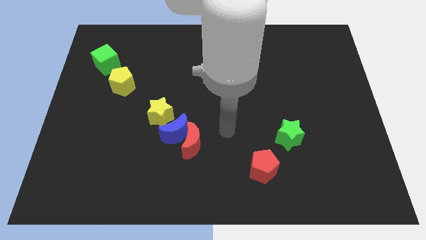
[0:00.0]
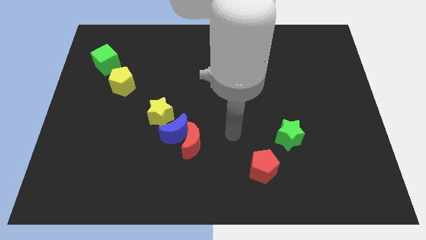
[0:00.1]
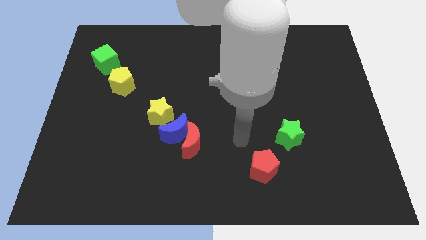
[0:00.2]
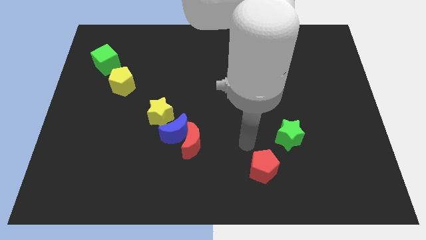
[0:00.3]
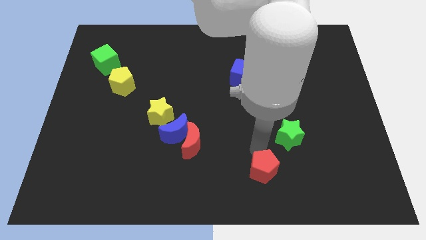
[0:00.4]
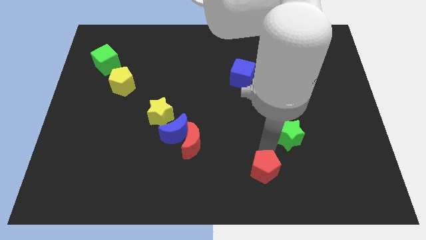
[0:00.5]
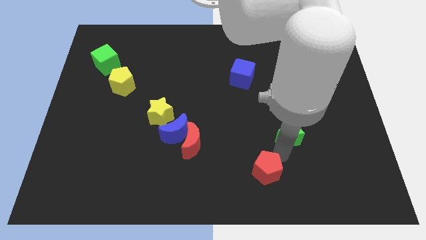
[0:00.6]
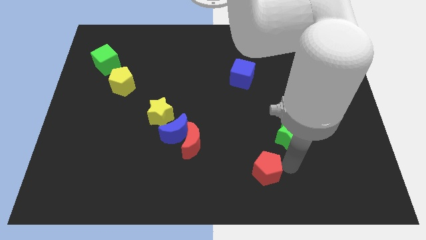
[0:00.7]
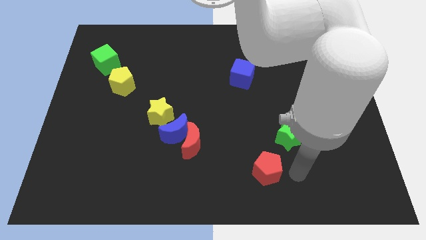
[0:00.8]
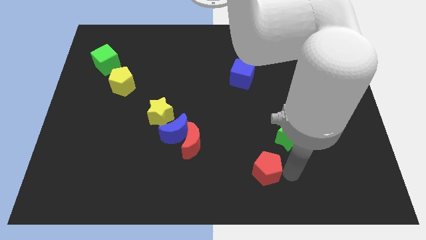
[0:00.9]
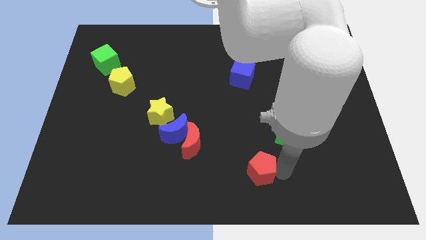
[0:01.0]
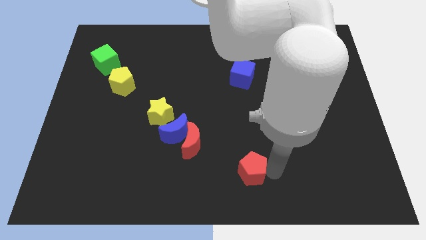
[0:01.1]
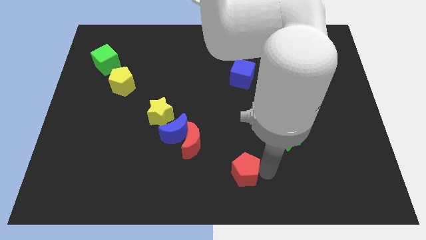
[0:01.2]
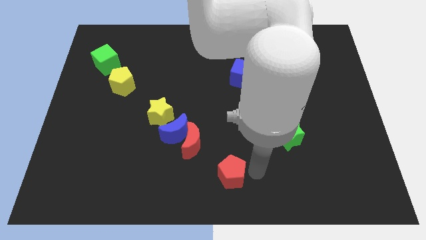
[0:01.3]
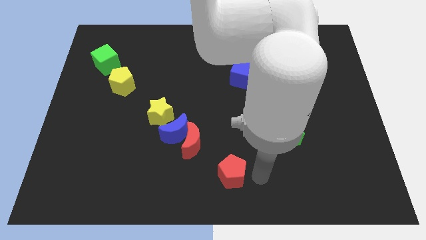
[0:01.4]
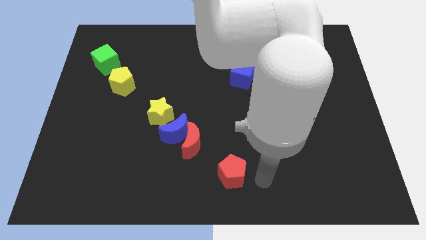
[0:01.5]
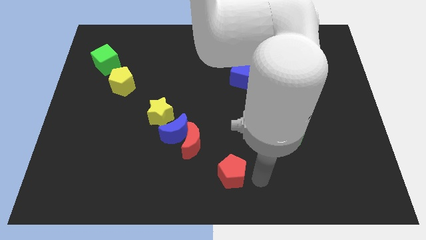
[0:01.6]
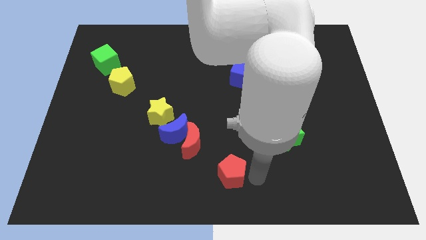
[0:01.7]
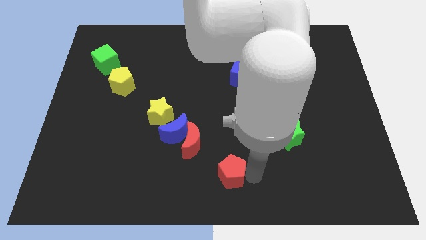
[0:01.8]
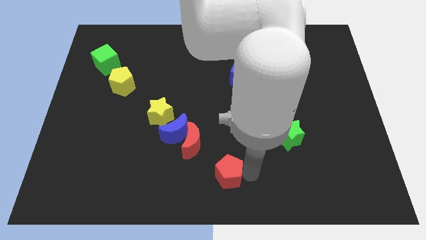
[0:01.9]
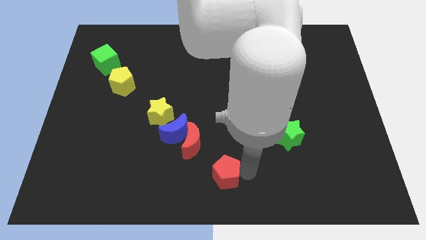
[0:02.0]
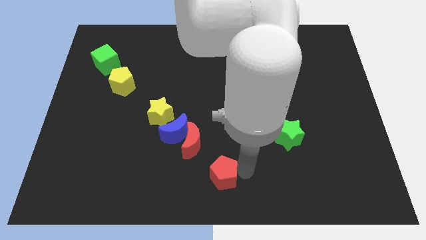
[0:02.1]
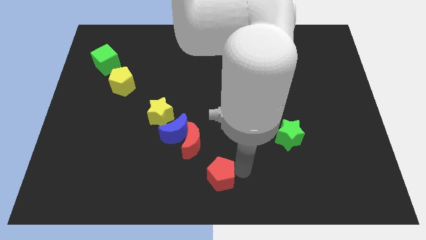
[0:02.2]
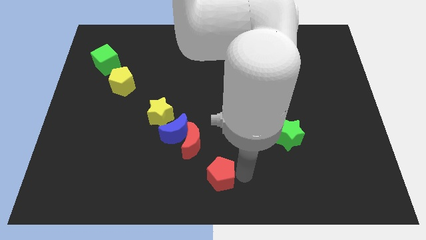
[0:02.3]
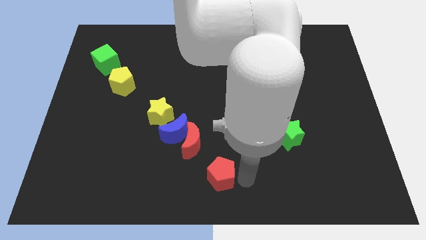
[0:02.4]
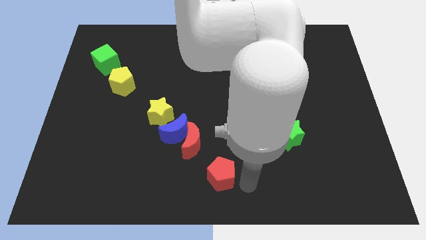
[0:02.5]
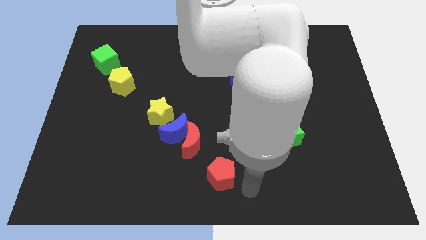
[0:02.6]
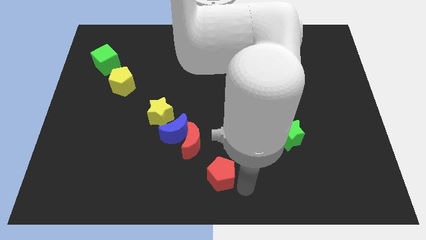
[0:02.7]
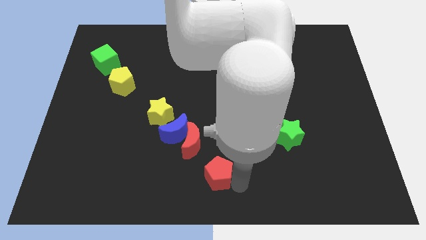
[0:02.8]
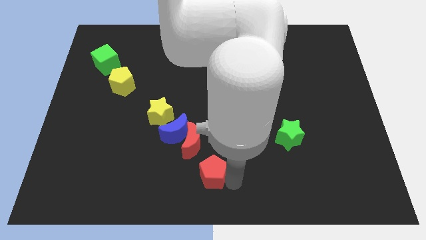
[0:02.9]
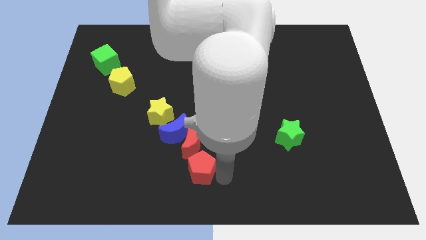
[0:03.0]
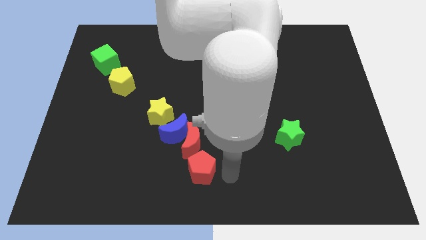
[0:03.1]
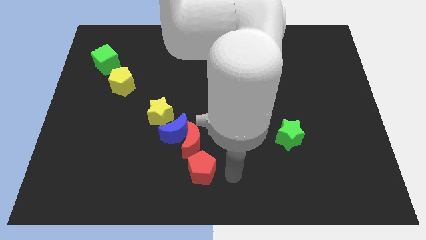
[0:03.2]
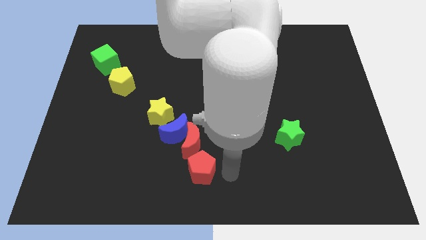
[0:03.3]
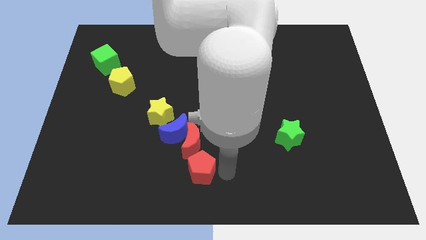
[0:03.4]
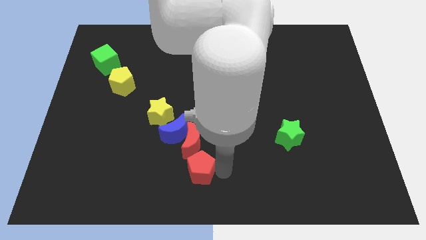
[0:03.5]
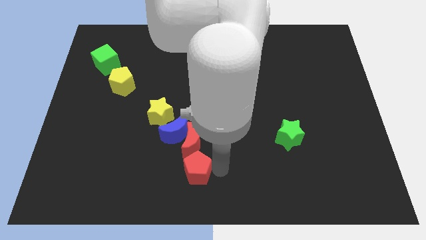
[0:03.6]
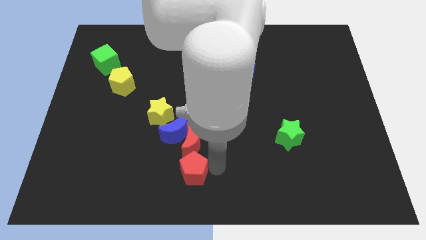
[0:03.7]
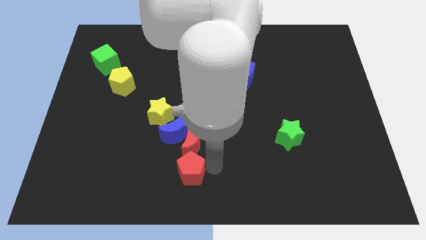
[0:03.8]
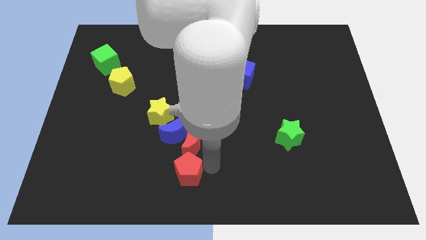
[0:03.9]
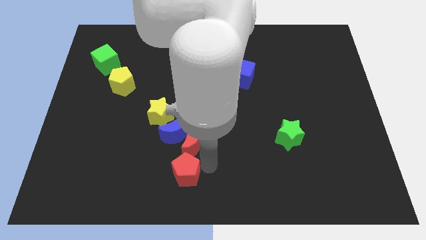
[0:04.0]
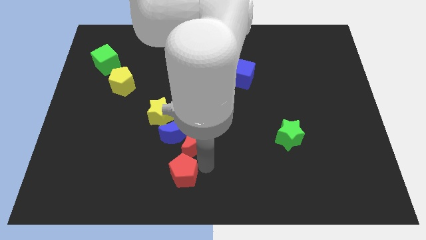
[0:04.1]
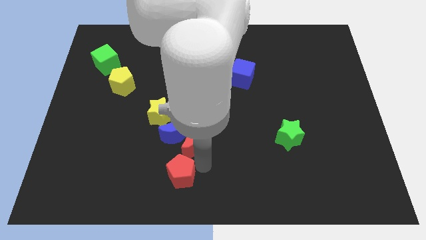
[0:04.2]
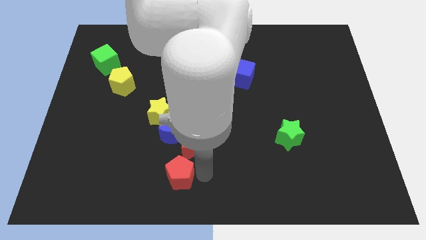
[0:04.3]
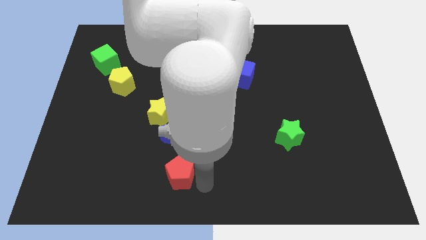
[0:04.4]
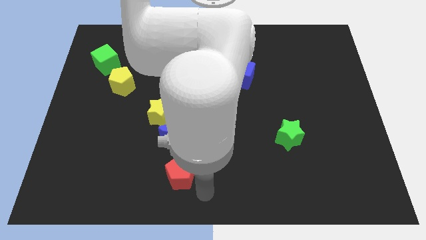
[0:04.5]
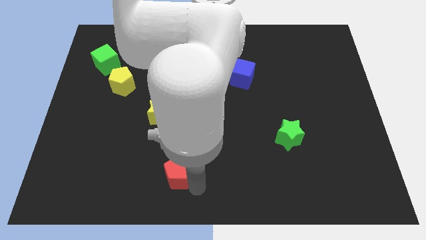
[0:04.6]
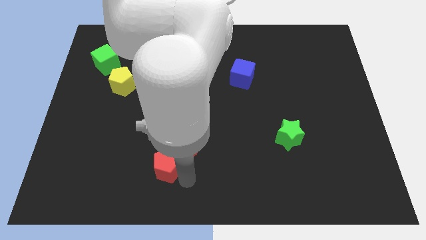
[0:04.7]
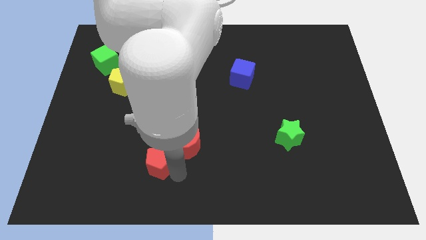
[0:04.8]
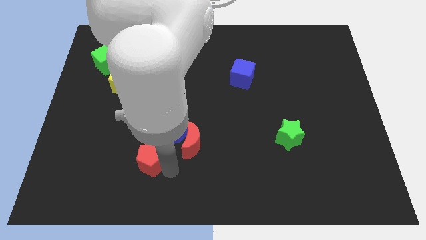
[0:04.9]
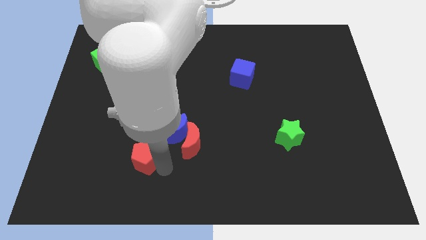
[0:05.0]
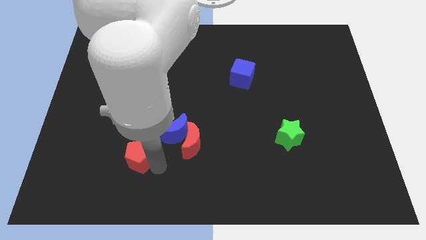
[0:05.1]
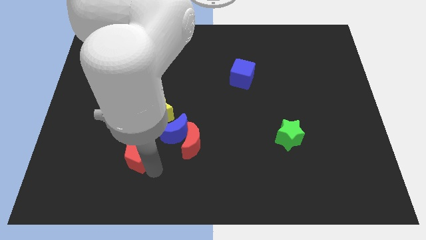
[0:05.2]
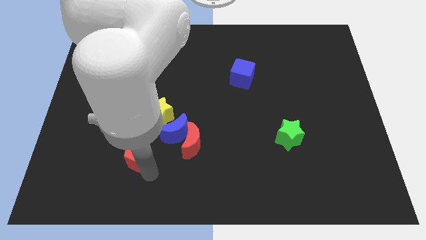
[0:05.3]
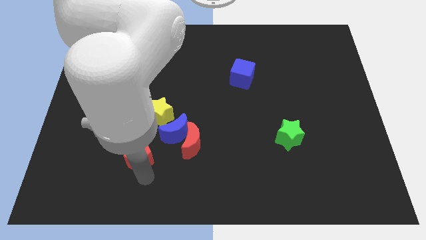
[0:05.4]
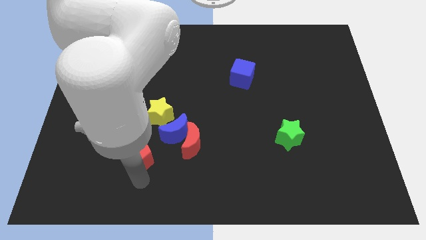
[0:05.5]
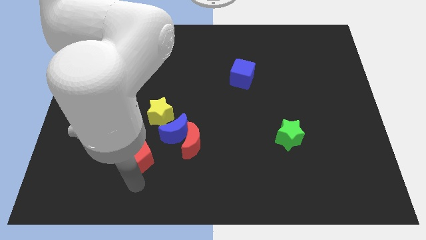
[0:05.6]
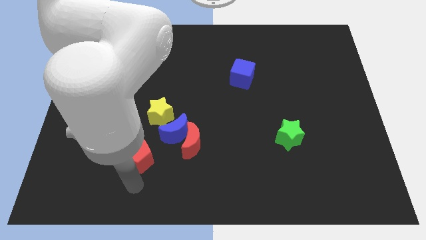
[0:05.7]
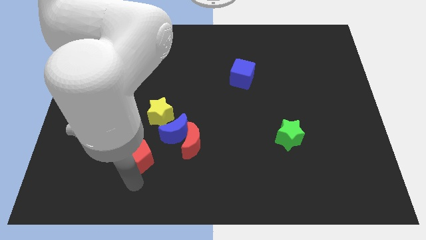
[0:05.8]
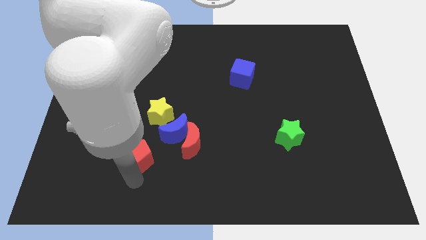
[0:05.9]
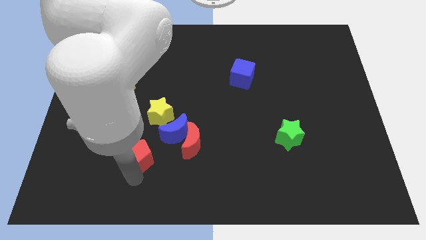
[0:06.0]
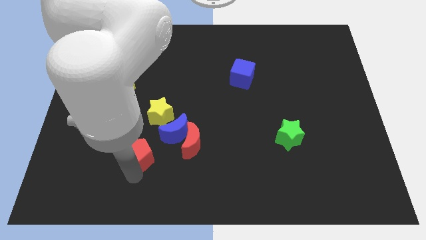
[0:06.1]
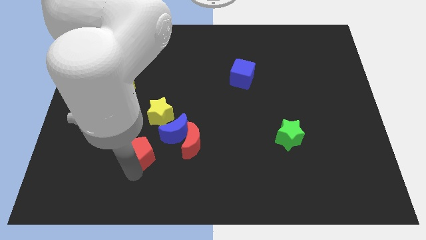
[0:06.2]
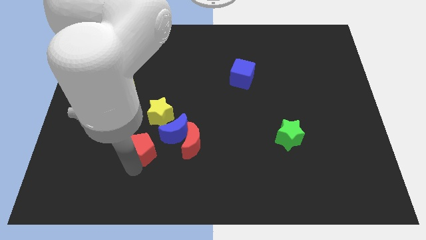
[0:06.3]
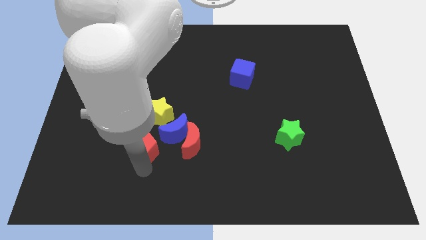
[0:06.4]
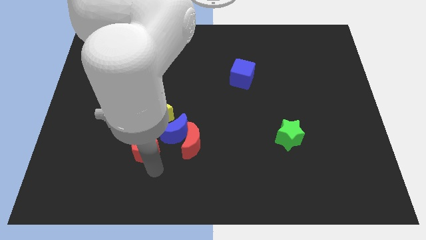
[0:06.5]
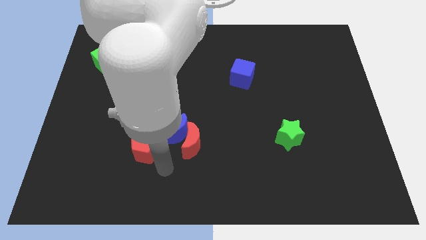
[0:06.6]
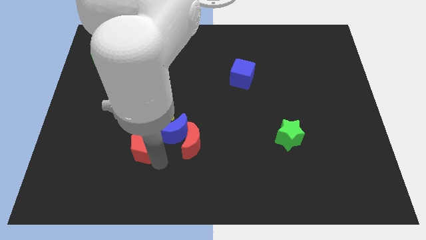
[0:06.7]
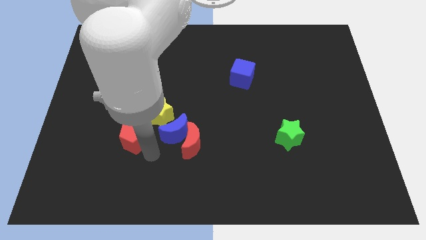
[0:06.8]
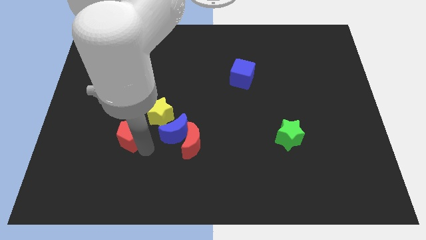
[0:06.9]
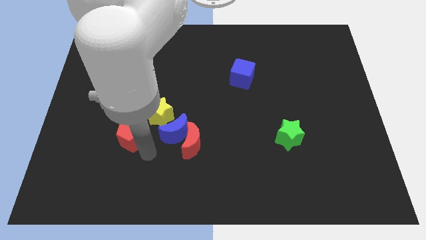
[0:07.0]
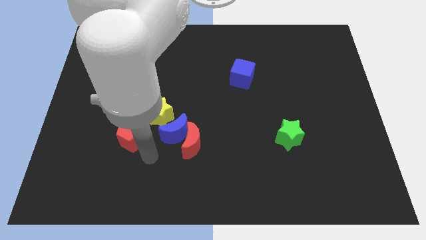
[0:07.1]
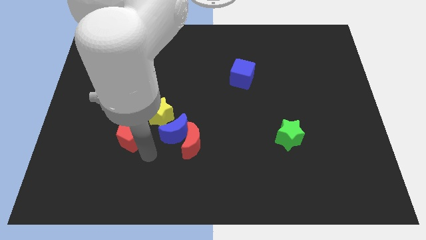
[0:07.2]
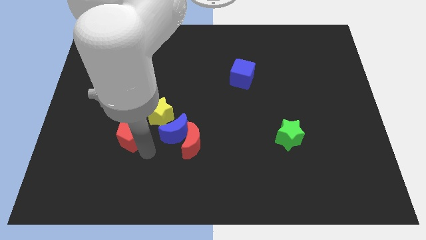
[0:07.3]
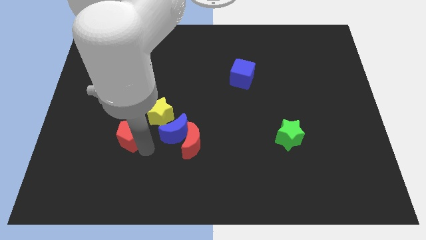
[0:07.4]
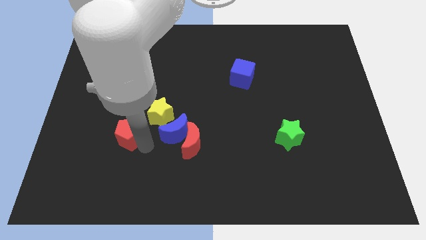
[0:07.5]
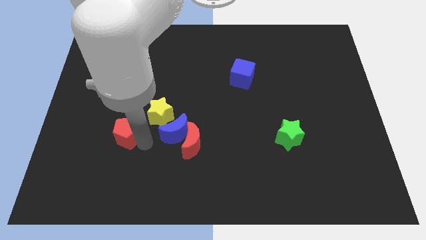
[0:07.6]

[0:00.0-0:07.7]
put the red pentagon below the yellow pentagon
